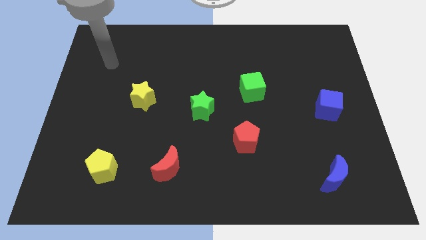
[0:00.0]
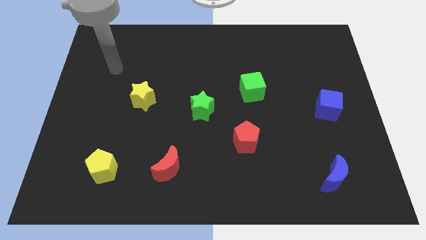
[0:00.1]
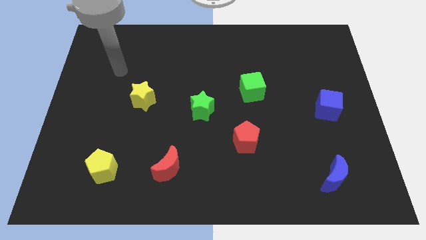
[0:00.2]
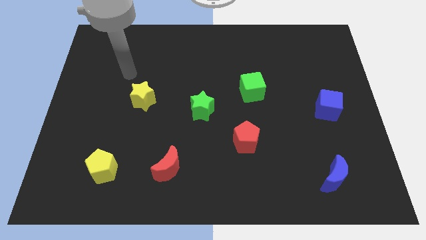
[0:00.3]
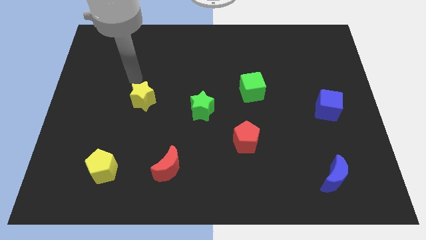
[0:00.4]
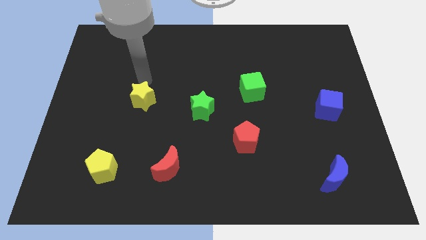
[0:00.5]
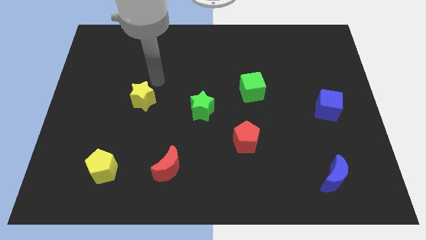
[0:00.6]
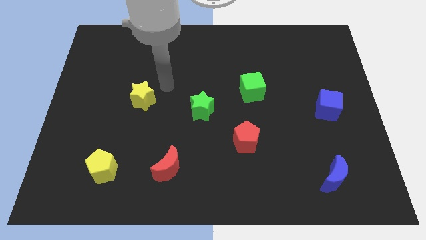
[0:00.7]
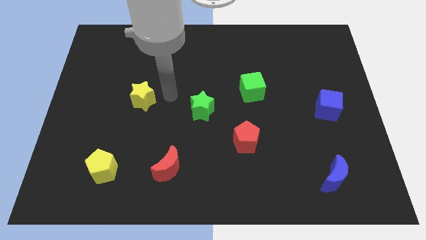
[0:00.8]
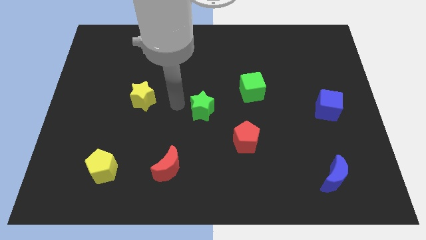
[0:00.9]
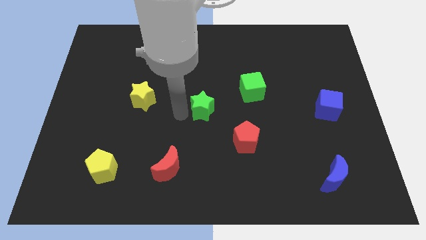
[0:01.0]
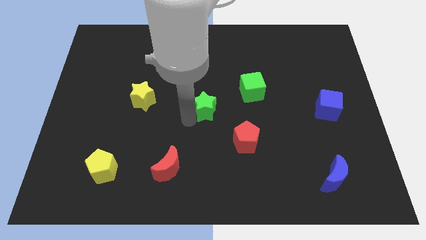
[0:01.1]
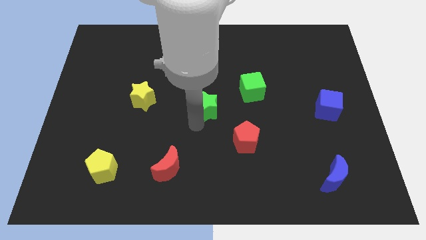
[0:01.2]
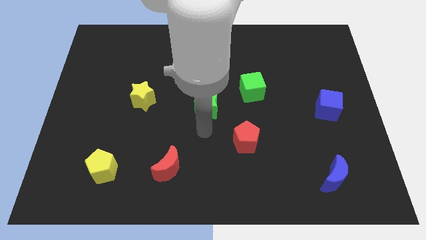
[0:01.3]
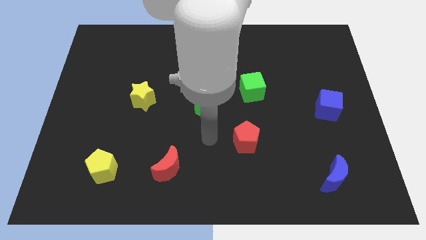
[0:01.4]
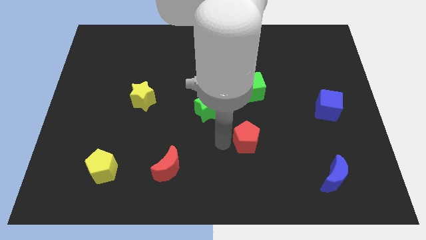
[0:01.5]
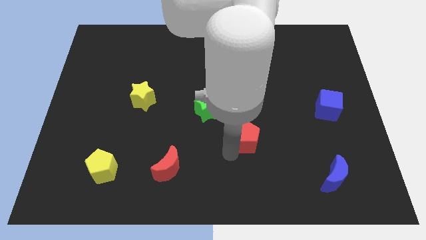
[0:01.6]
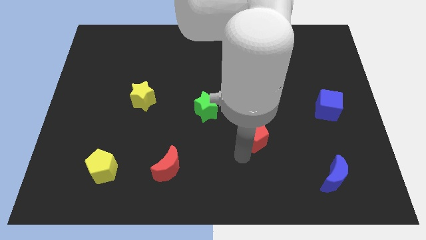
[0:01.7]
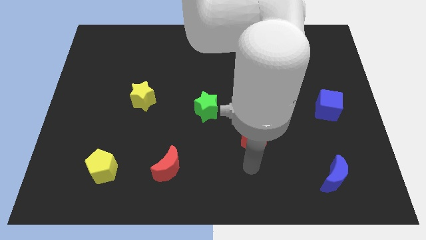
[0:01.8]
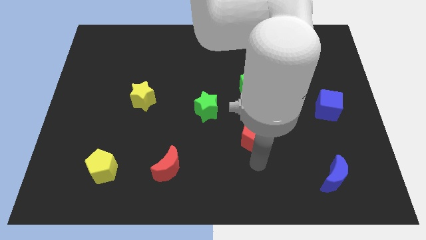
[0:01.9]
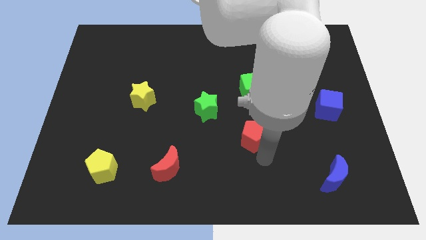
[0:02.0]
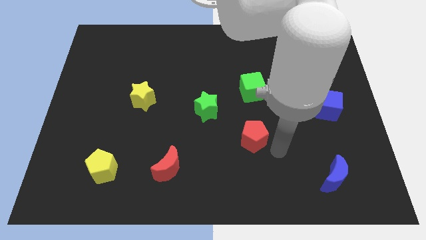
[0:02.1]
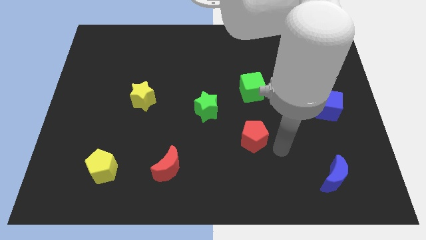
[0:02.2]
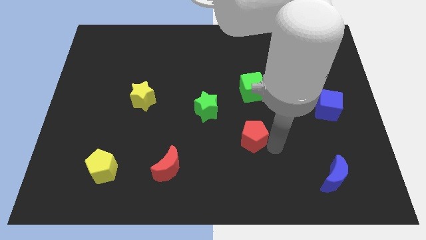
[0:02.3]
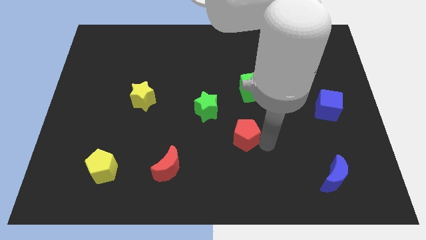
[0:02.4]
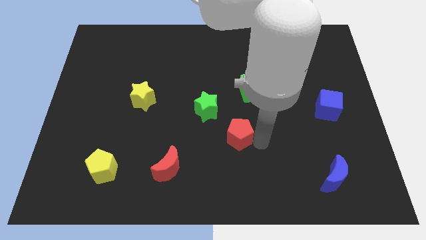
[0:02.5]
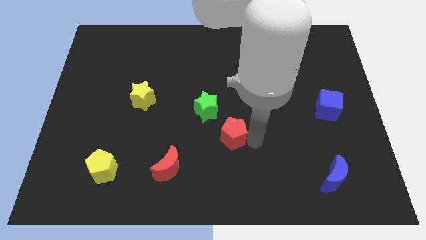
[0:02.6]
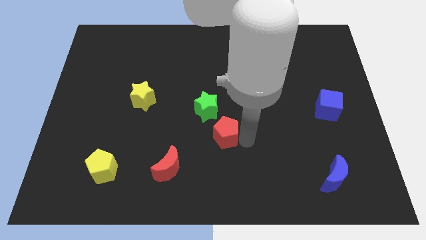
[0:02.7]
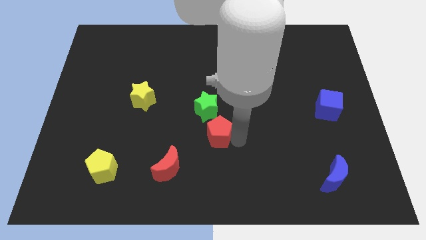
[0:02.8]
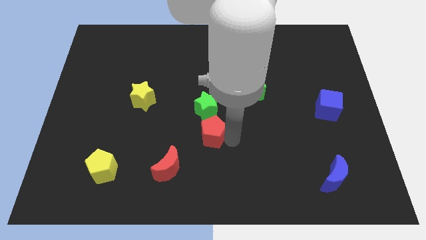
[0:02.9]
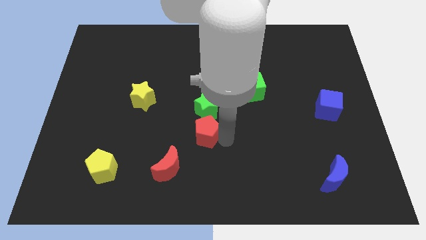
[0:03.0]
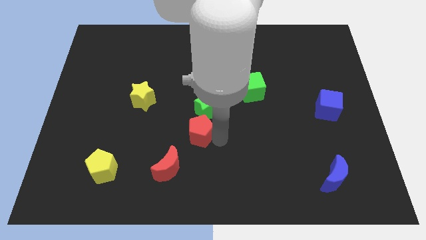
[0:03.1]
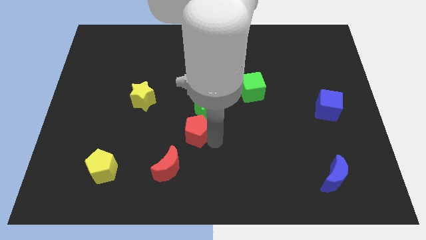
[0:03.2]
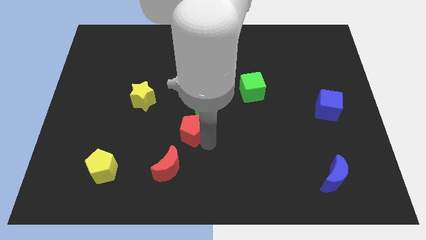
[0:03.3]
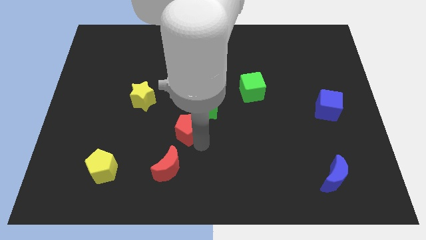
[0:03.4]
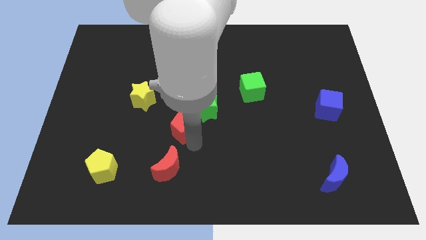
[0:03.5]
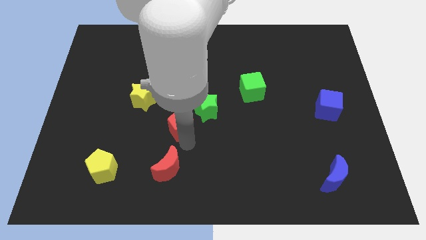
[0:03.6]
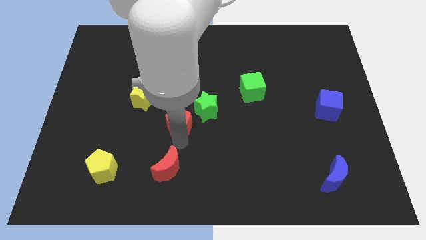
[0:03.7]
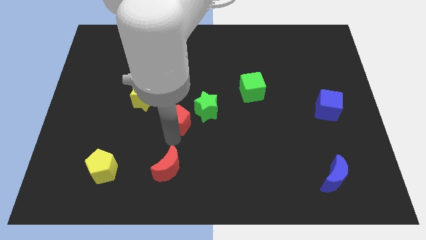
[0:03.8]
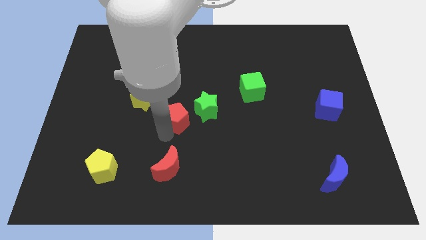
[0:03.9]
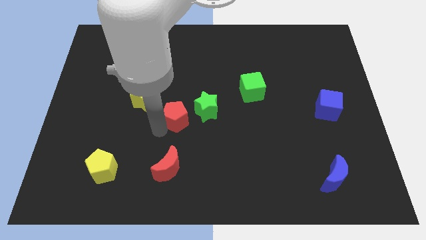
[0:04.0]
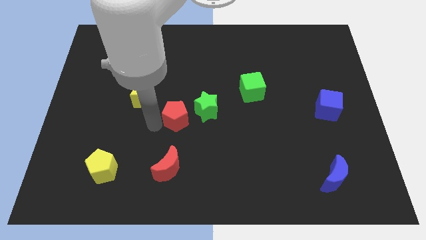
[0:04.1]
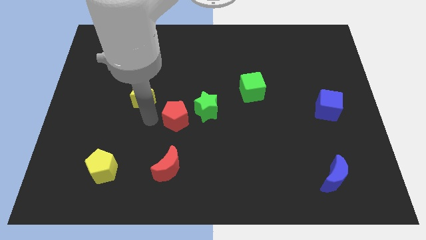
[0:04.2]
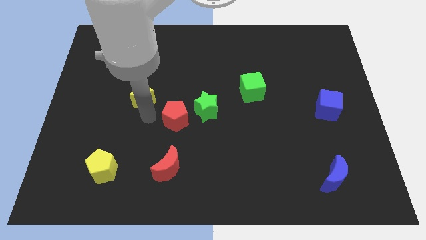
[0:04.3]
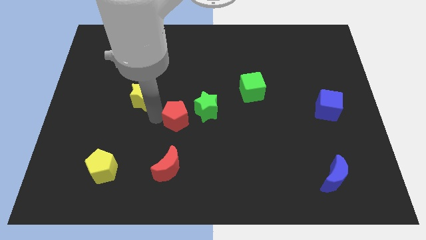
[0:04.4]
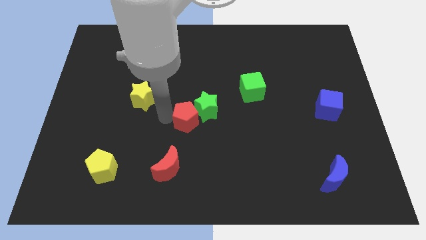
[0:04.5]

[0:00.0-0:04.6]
move the red pentagon to the green star

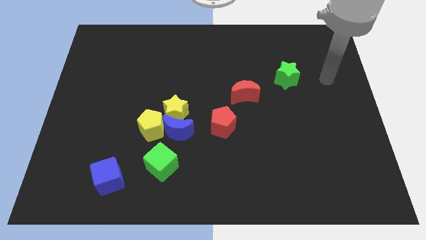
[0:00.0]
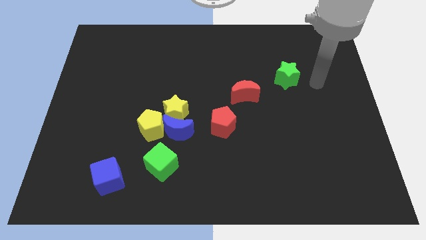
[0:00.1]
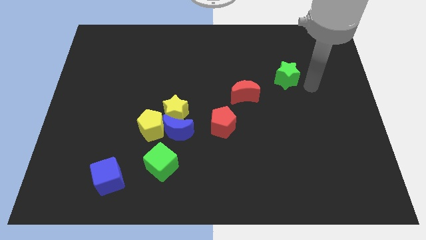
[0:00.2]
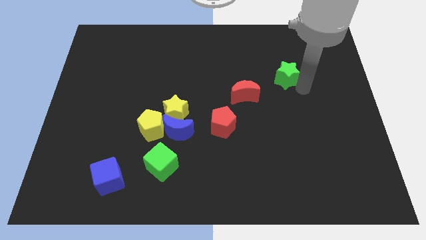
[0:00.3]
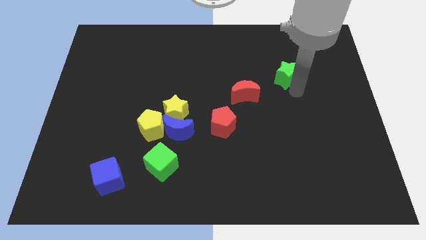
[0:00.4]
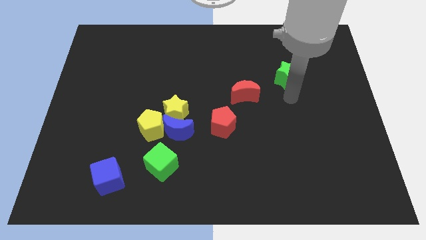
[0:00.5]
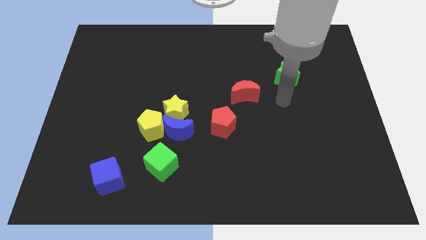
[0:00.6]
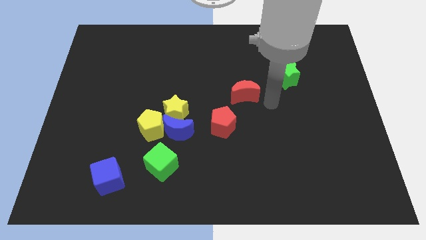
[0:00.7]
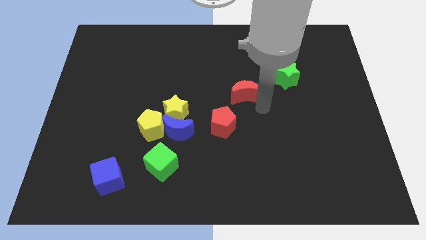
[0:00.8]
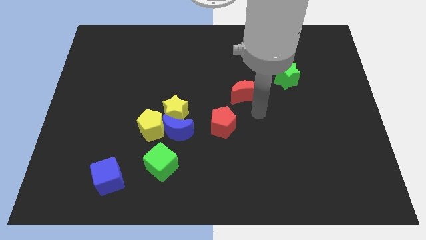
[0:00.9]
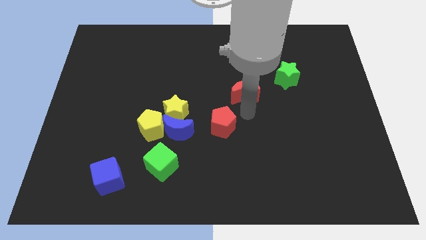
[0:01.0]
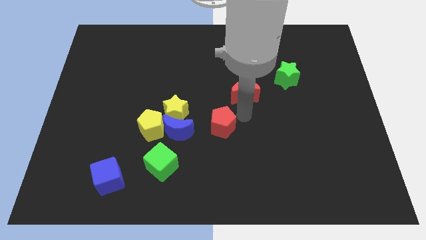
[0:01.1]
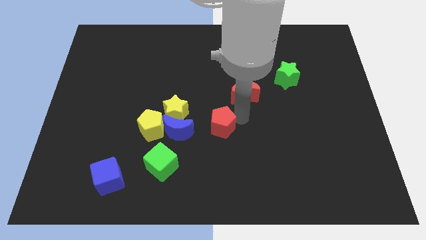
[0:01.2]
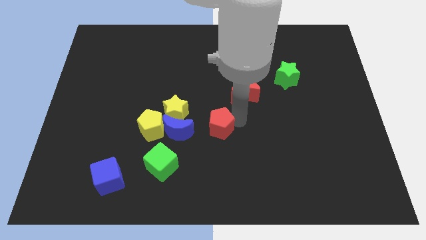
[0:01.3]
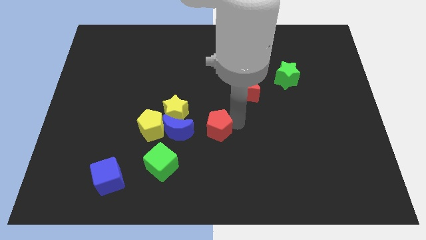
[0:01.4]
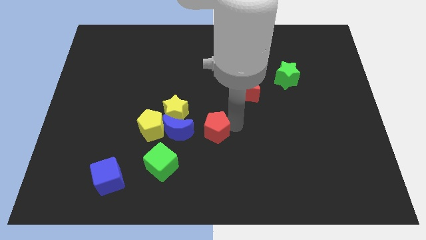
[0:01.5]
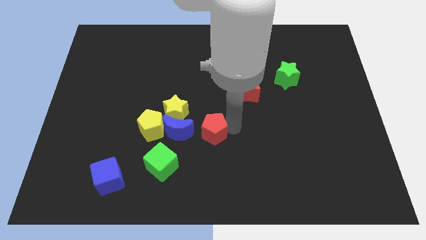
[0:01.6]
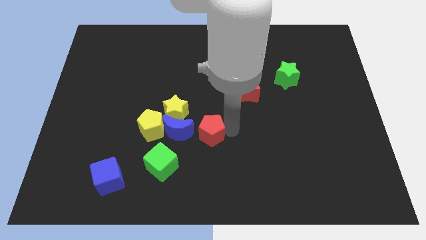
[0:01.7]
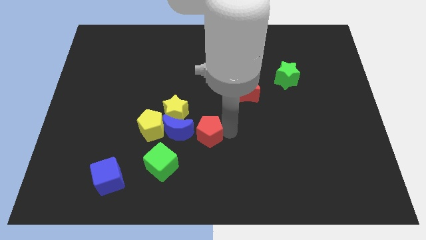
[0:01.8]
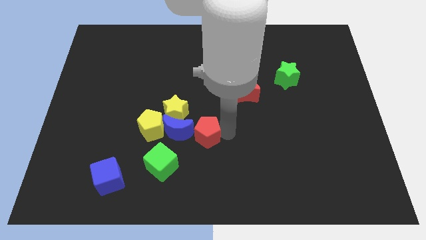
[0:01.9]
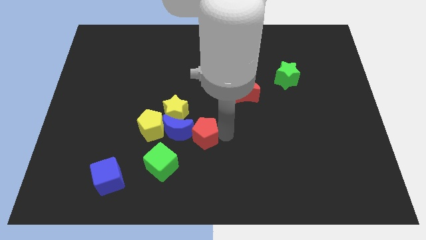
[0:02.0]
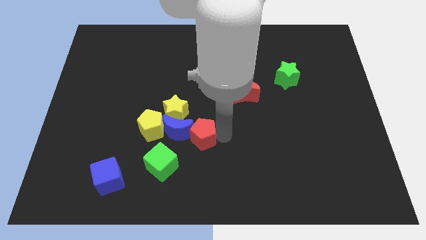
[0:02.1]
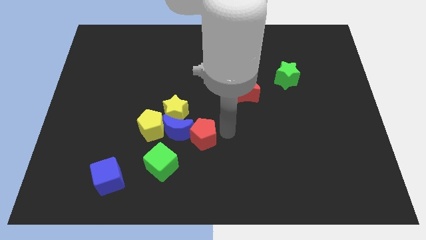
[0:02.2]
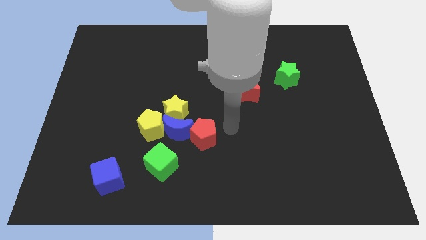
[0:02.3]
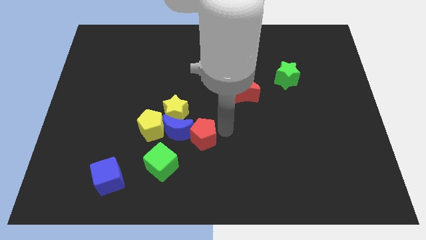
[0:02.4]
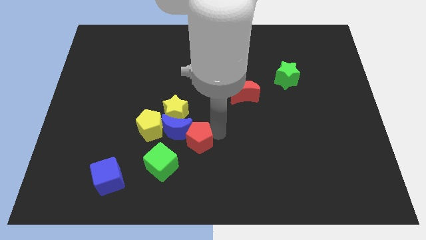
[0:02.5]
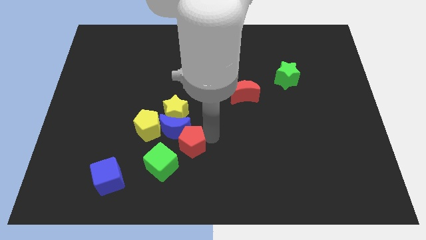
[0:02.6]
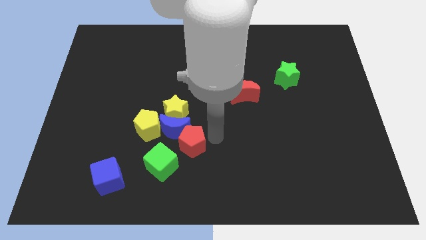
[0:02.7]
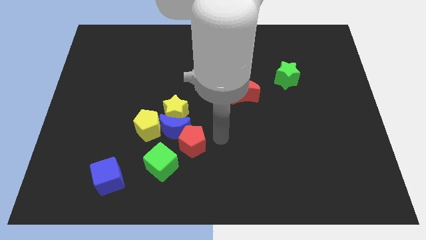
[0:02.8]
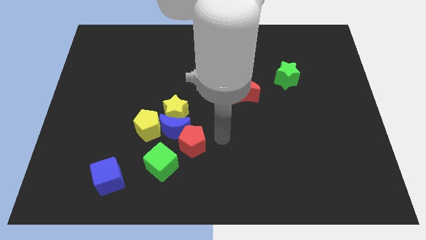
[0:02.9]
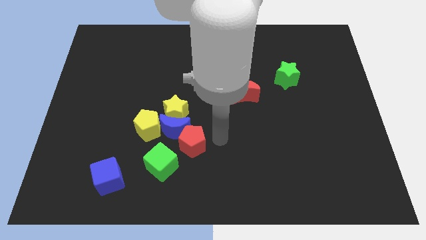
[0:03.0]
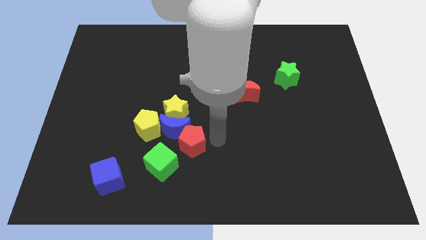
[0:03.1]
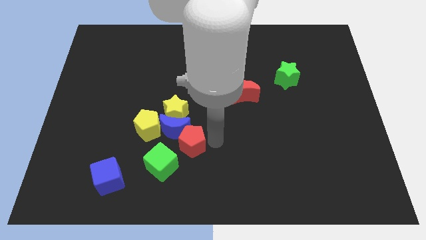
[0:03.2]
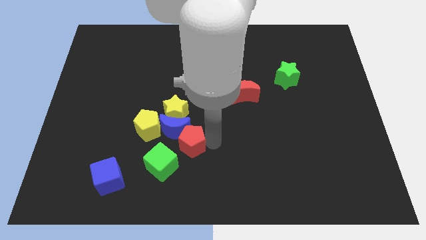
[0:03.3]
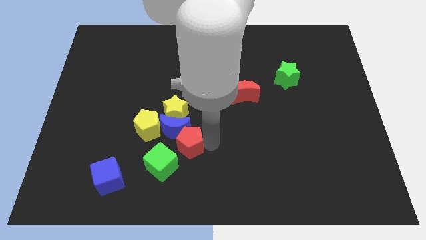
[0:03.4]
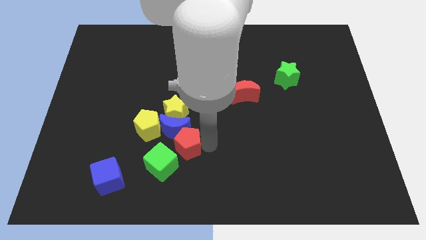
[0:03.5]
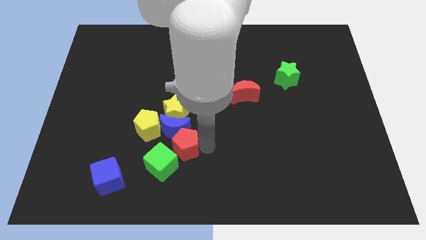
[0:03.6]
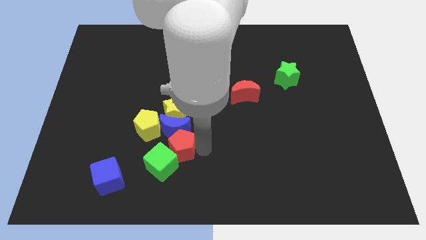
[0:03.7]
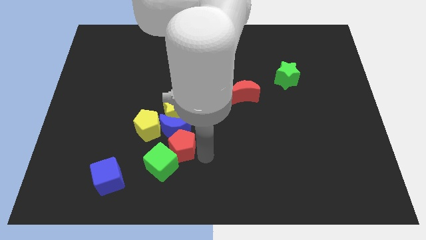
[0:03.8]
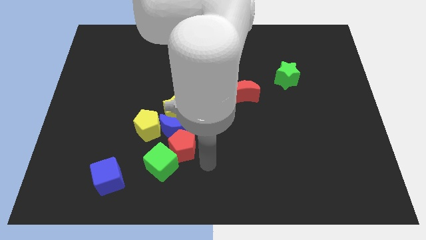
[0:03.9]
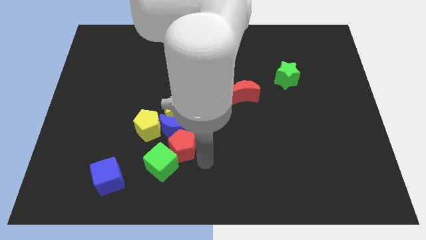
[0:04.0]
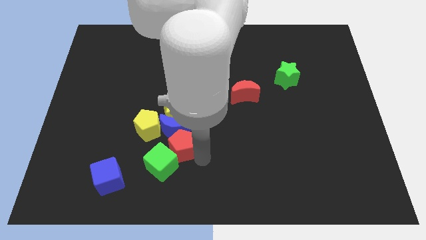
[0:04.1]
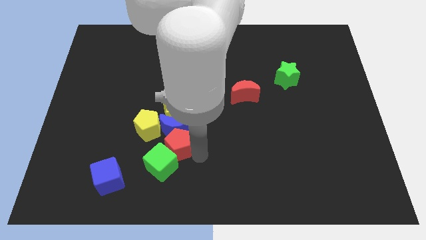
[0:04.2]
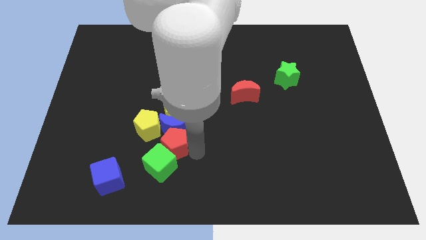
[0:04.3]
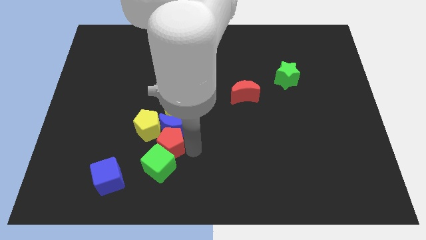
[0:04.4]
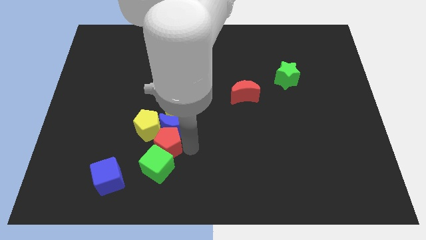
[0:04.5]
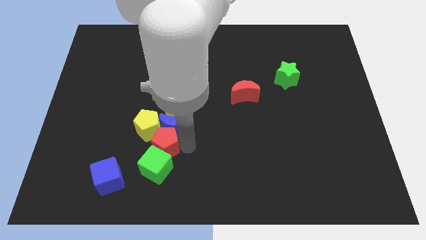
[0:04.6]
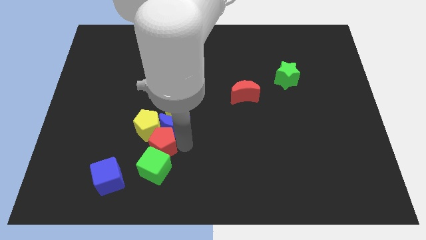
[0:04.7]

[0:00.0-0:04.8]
push the red pentagon close to the yellow pentagon
